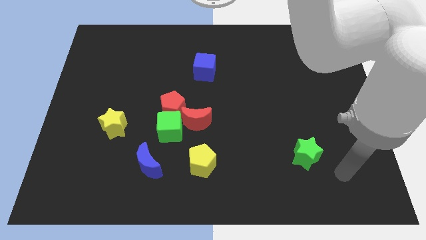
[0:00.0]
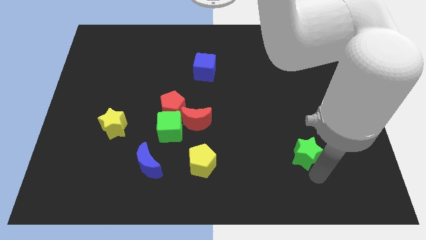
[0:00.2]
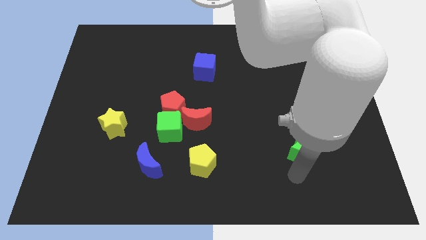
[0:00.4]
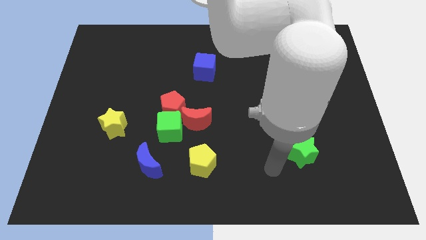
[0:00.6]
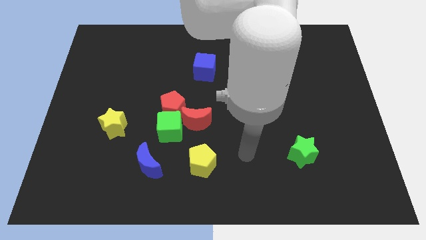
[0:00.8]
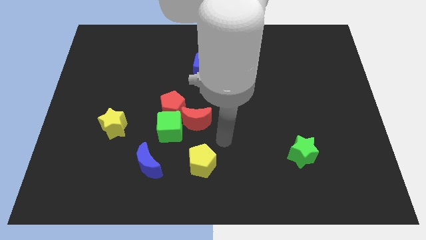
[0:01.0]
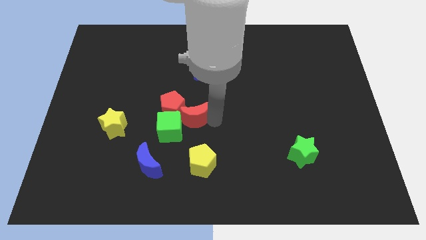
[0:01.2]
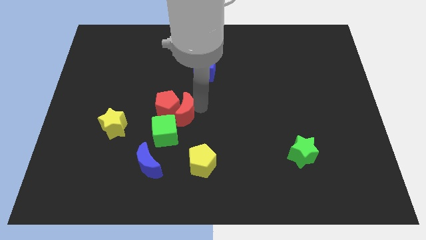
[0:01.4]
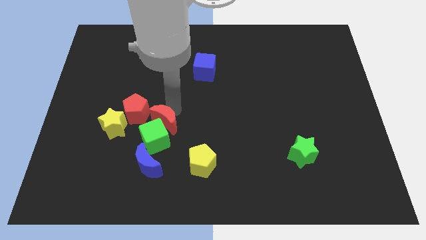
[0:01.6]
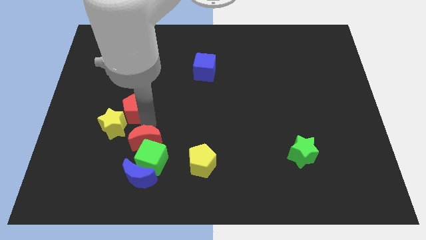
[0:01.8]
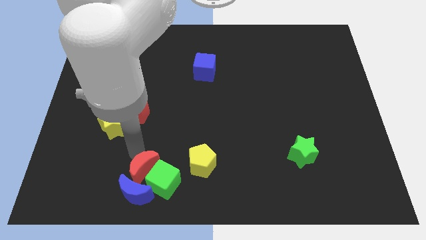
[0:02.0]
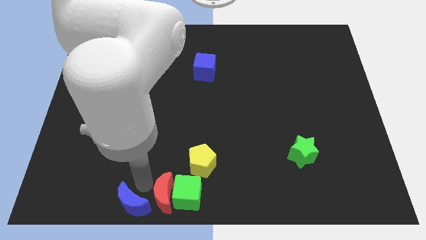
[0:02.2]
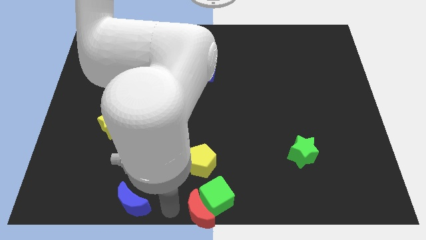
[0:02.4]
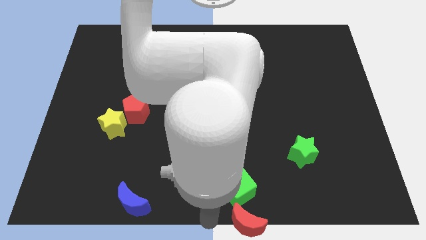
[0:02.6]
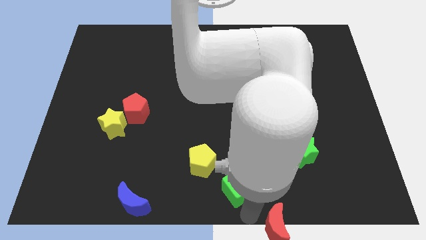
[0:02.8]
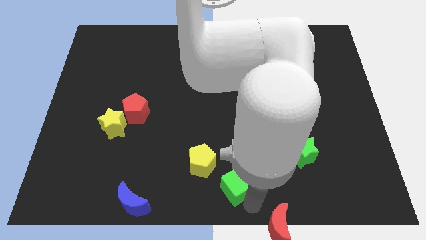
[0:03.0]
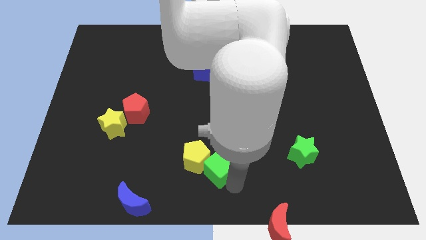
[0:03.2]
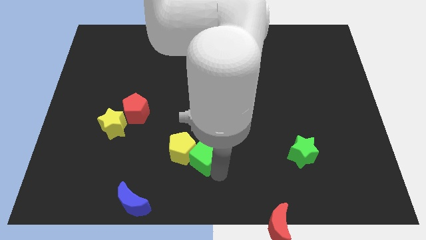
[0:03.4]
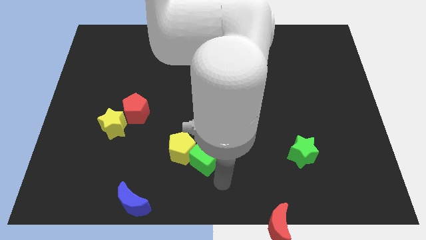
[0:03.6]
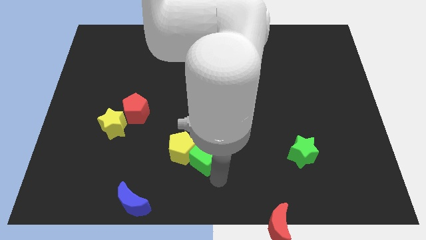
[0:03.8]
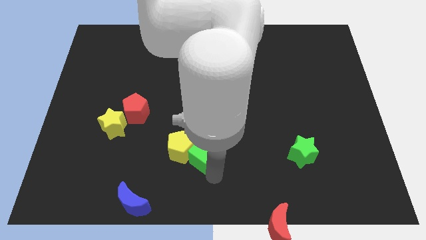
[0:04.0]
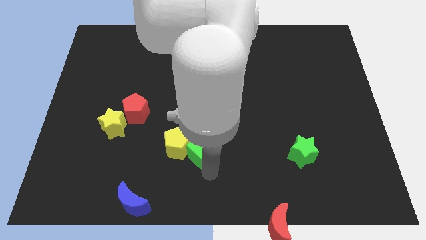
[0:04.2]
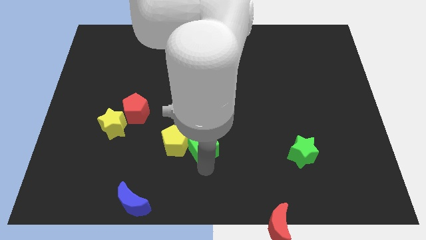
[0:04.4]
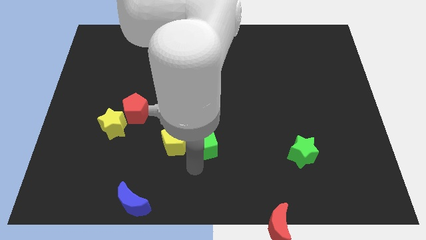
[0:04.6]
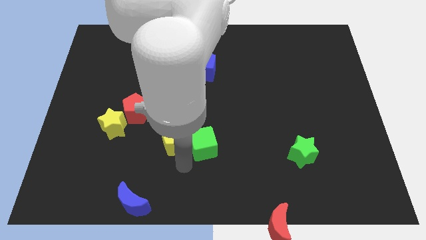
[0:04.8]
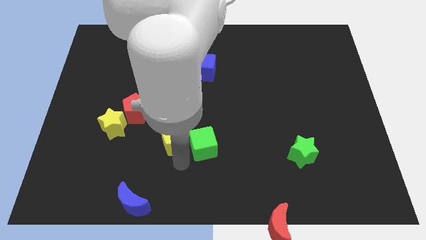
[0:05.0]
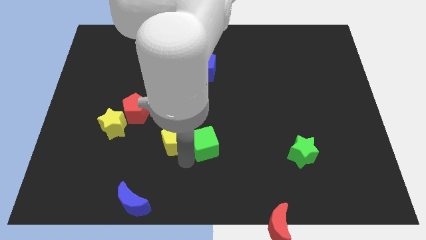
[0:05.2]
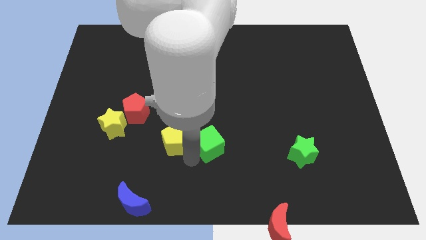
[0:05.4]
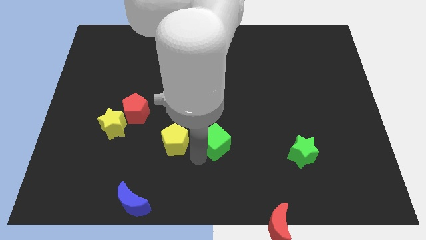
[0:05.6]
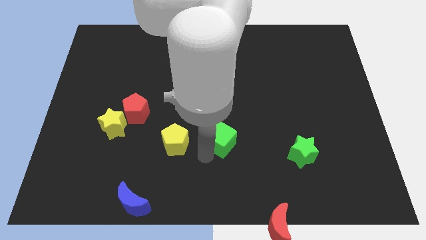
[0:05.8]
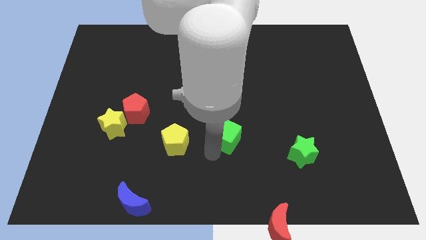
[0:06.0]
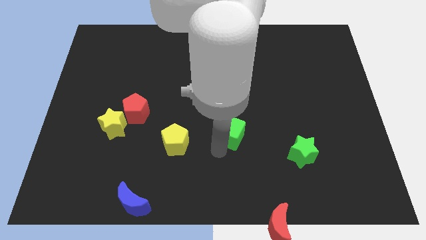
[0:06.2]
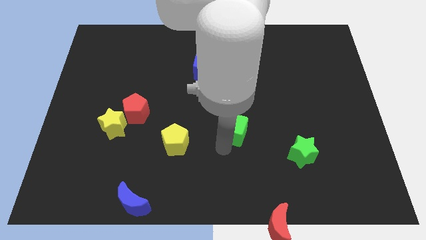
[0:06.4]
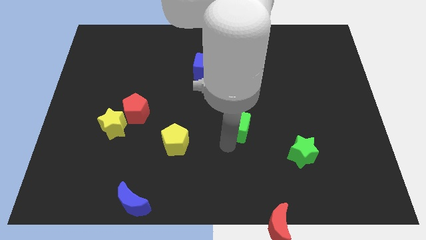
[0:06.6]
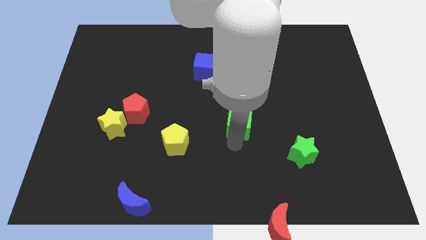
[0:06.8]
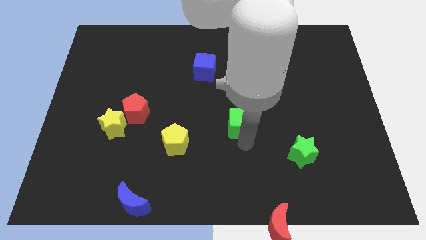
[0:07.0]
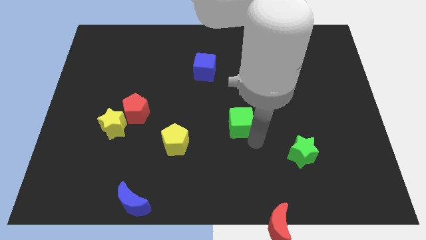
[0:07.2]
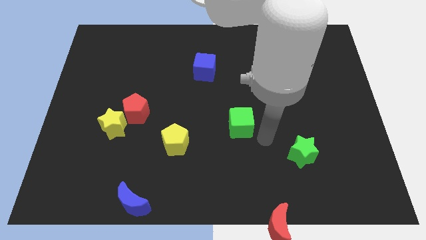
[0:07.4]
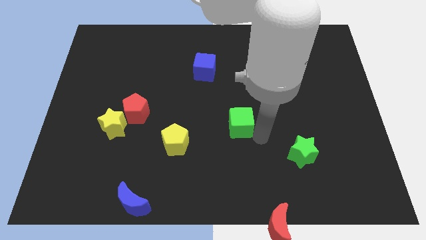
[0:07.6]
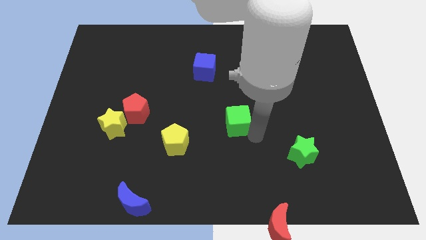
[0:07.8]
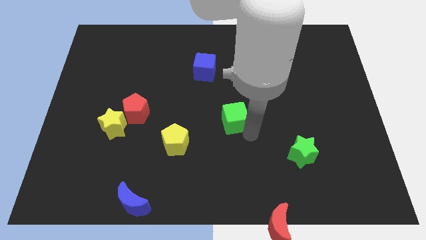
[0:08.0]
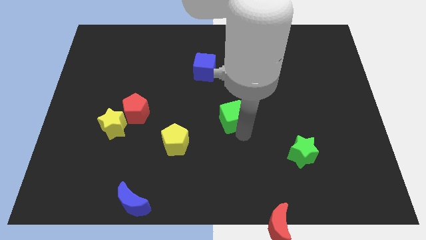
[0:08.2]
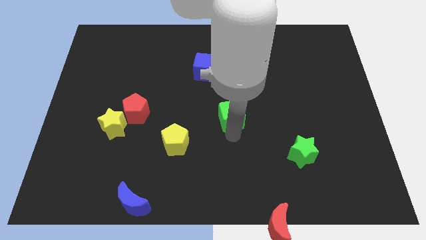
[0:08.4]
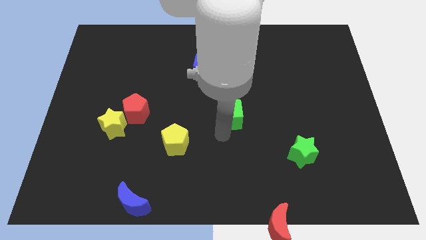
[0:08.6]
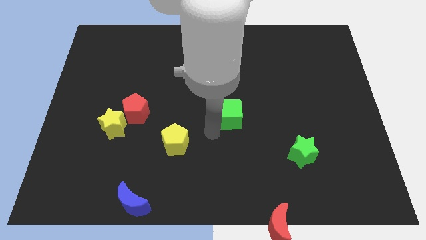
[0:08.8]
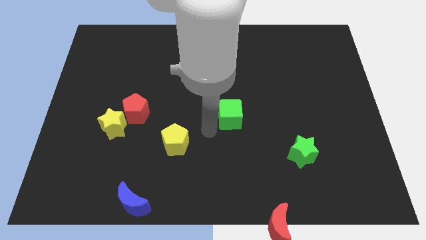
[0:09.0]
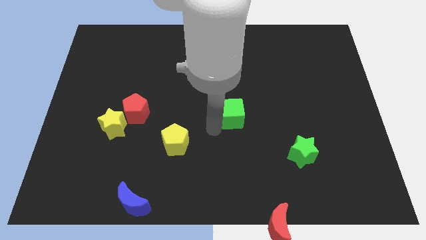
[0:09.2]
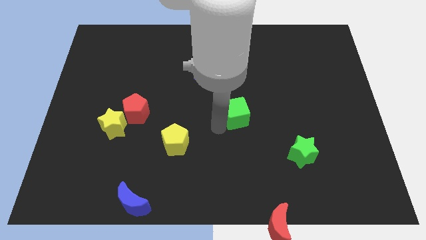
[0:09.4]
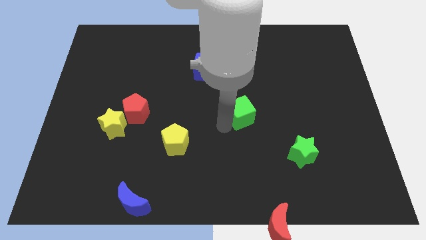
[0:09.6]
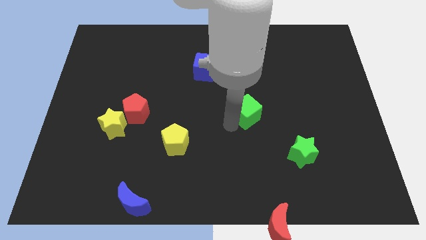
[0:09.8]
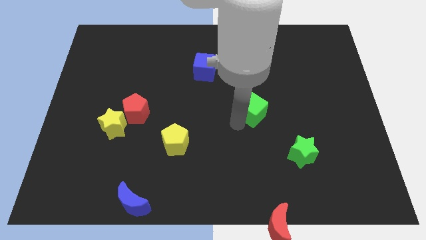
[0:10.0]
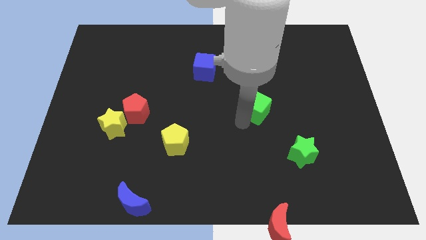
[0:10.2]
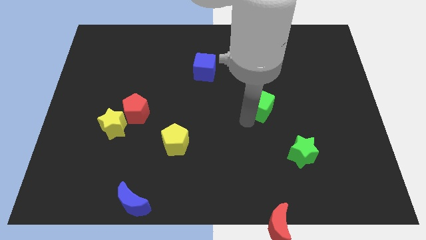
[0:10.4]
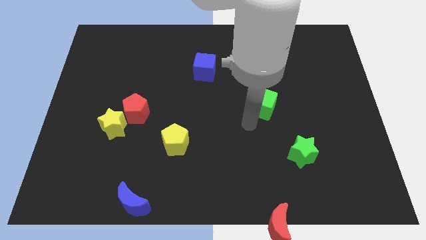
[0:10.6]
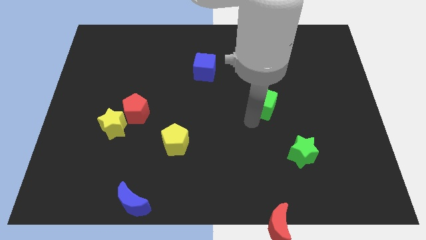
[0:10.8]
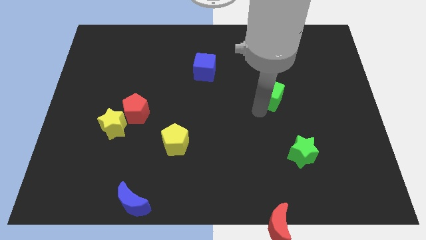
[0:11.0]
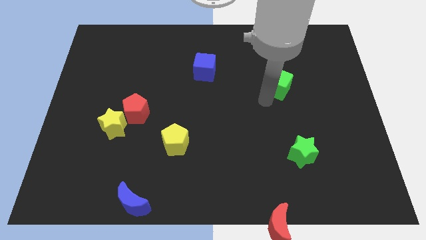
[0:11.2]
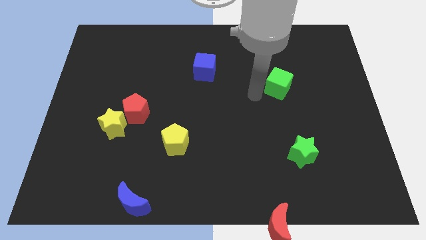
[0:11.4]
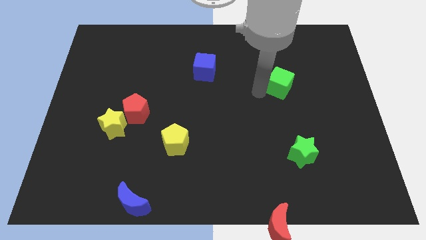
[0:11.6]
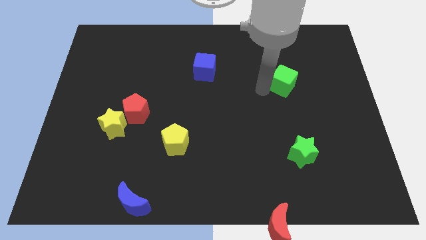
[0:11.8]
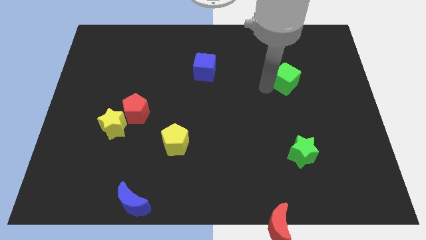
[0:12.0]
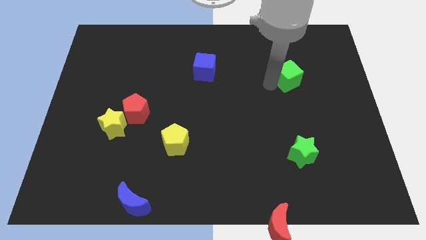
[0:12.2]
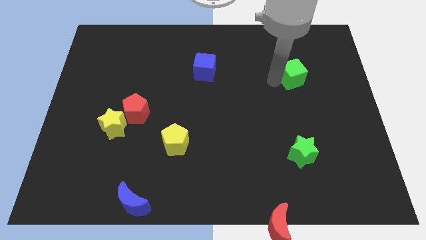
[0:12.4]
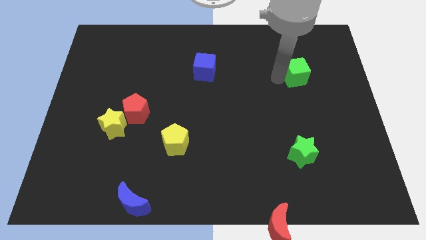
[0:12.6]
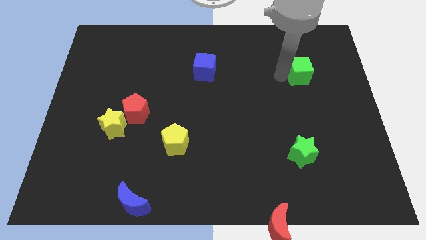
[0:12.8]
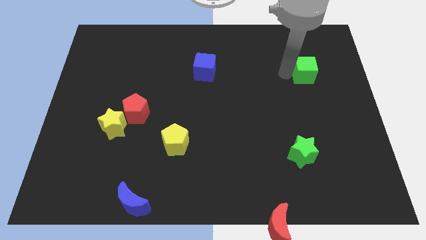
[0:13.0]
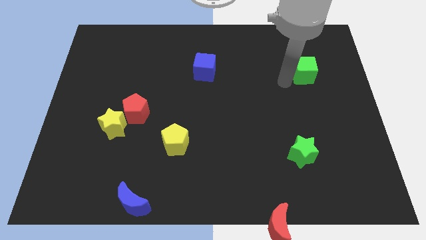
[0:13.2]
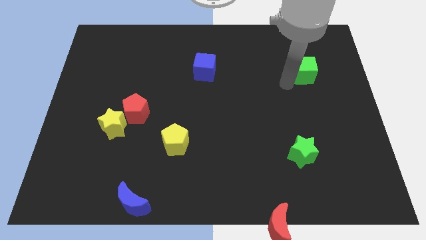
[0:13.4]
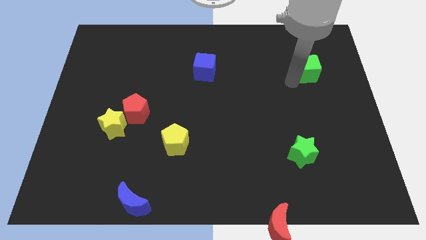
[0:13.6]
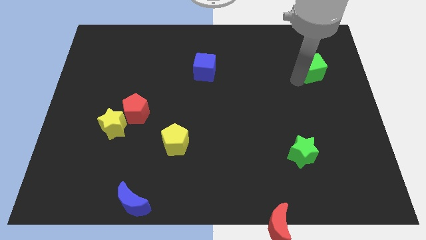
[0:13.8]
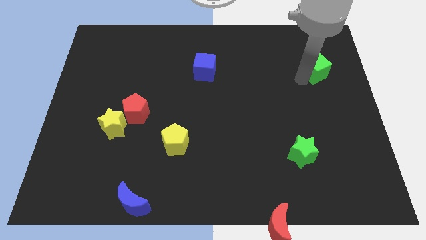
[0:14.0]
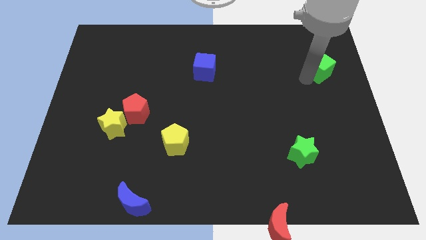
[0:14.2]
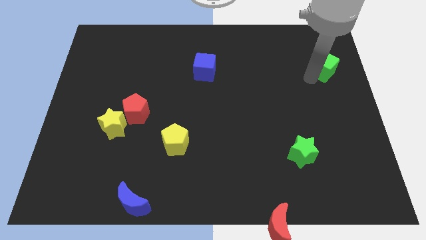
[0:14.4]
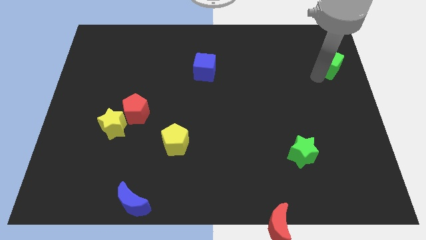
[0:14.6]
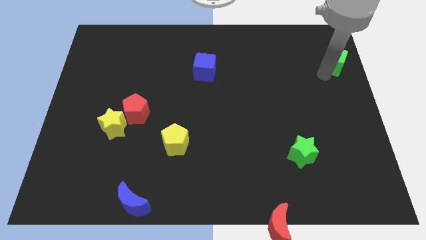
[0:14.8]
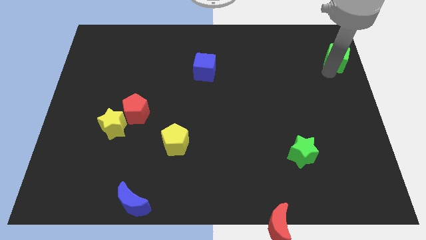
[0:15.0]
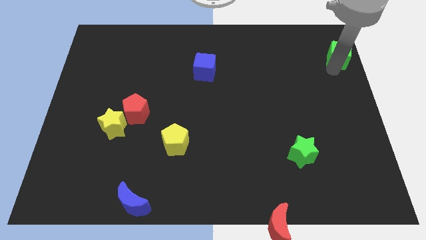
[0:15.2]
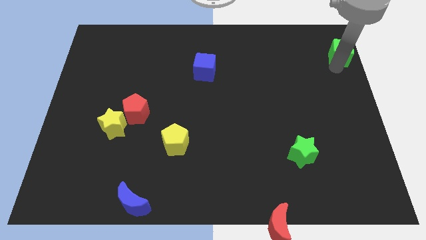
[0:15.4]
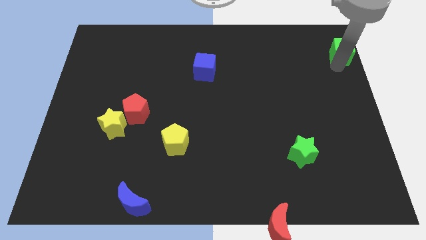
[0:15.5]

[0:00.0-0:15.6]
put the green cube to the top right of the board
